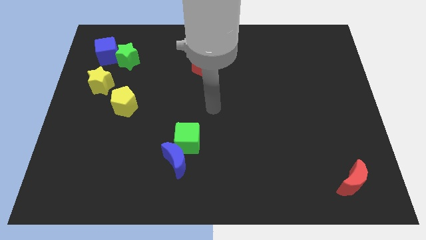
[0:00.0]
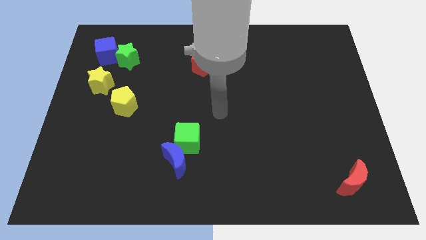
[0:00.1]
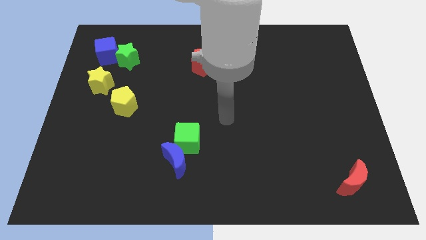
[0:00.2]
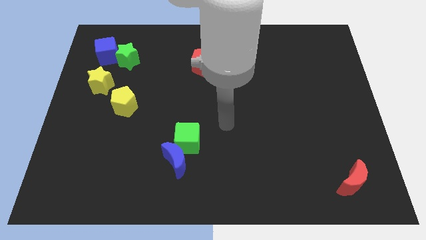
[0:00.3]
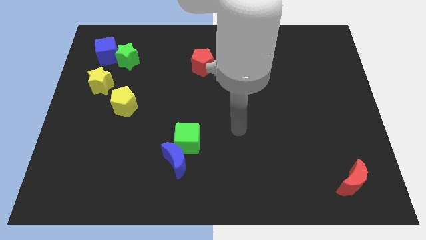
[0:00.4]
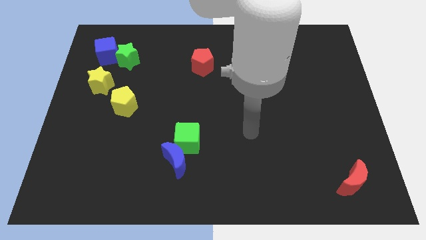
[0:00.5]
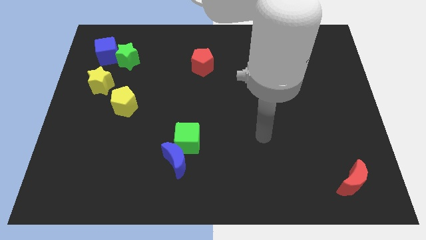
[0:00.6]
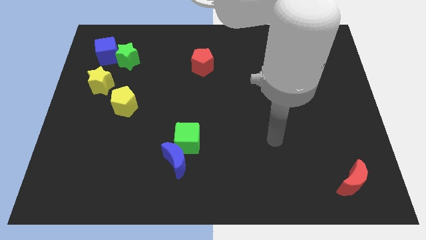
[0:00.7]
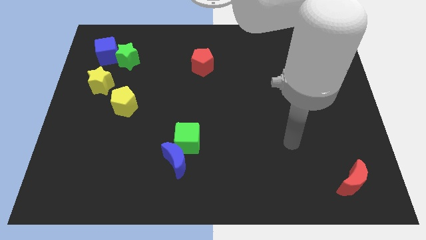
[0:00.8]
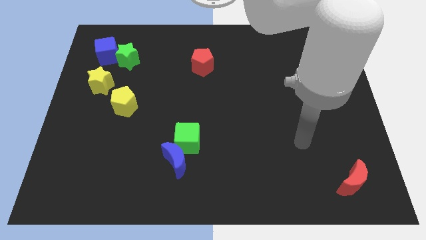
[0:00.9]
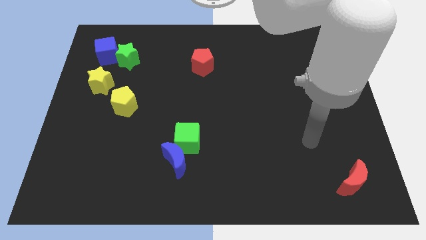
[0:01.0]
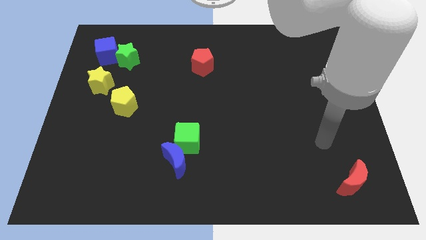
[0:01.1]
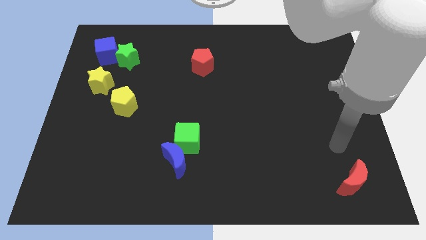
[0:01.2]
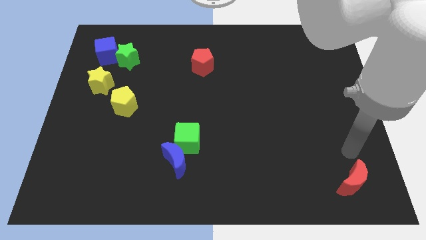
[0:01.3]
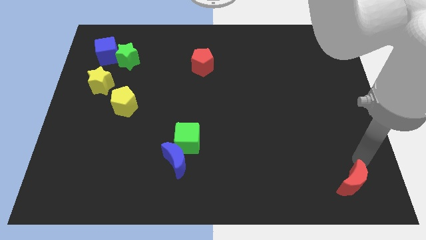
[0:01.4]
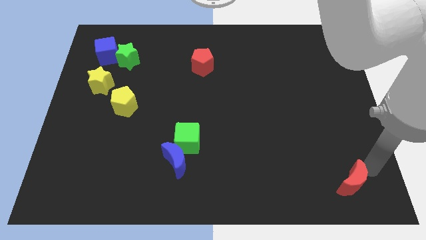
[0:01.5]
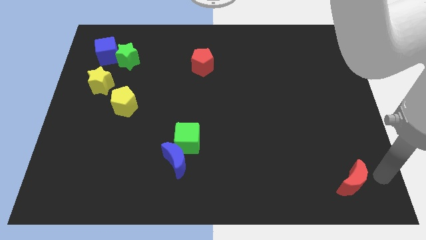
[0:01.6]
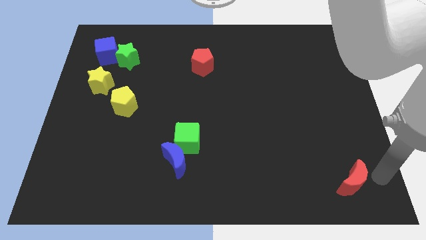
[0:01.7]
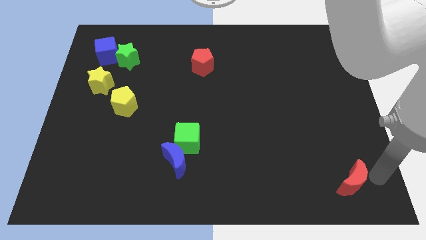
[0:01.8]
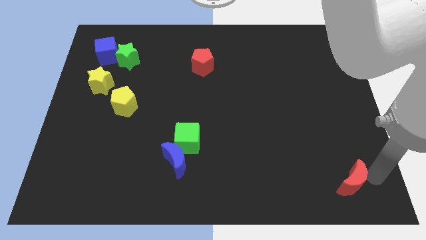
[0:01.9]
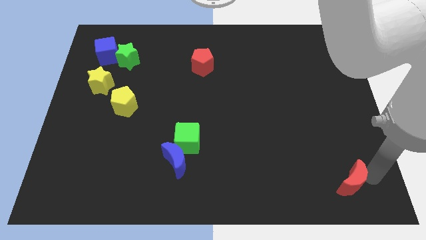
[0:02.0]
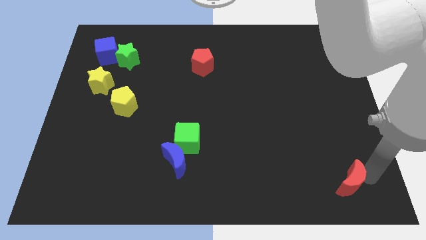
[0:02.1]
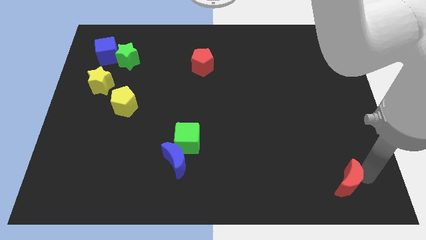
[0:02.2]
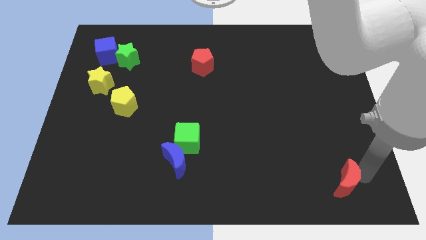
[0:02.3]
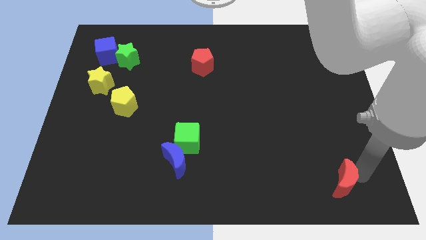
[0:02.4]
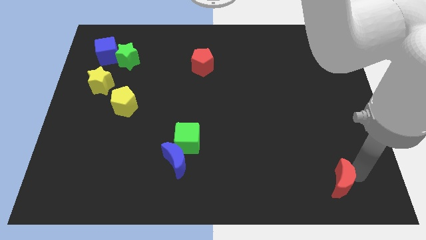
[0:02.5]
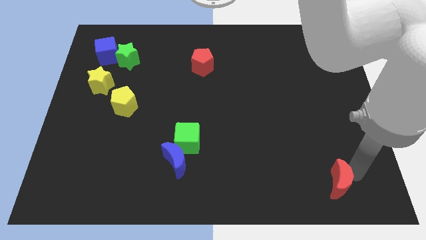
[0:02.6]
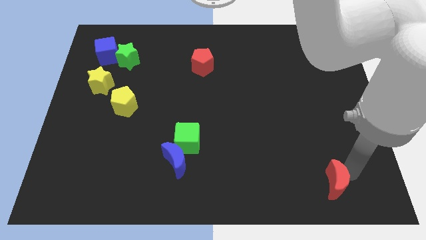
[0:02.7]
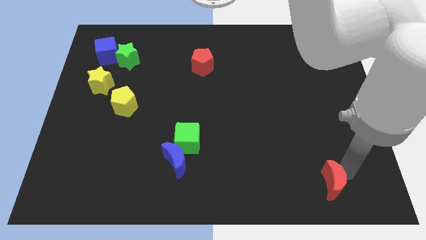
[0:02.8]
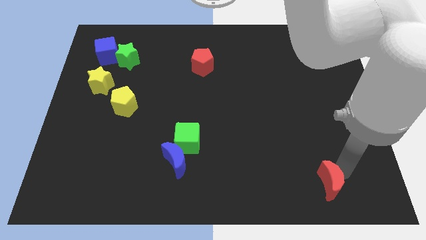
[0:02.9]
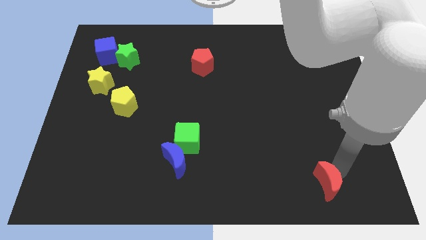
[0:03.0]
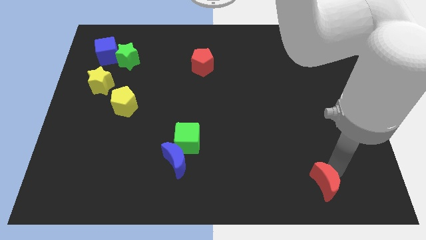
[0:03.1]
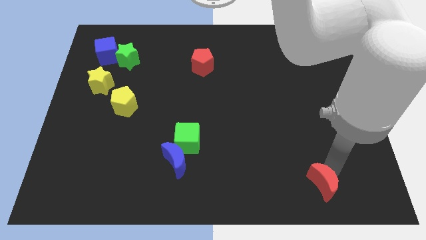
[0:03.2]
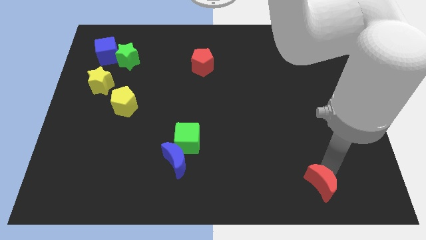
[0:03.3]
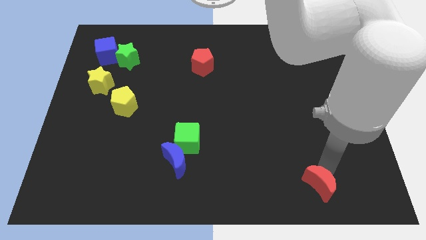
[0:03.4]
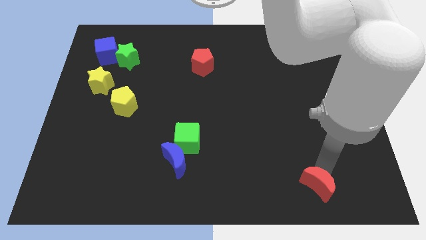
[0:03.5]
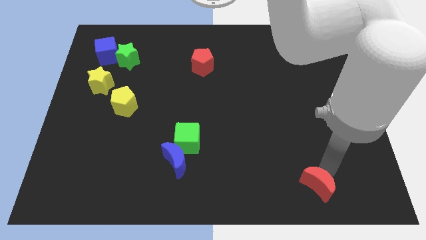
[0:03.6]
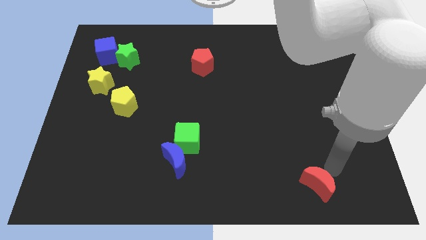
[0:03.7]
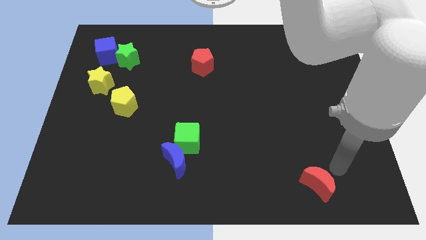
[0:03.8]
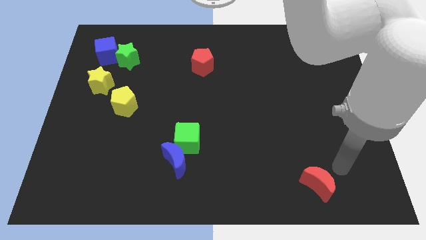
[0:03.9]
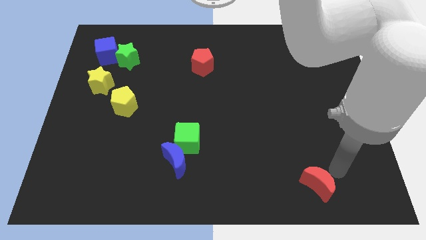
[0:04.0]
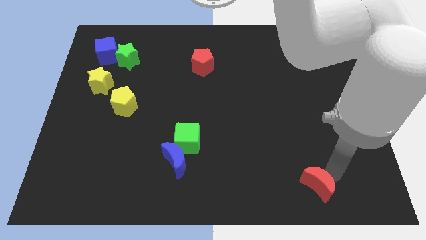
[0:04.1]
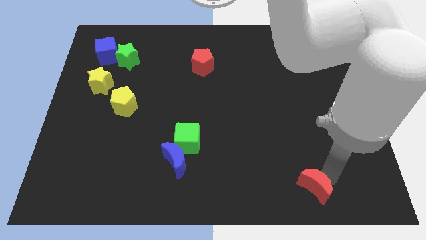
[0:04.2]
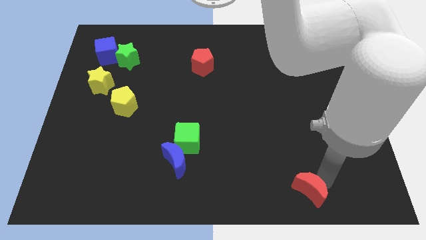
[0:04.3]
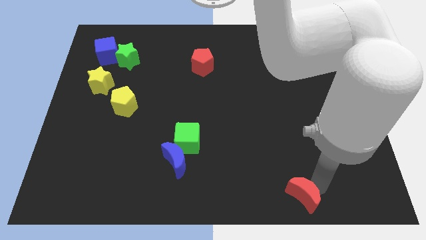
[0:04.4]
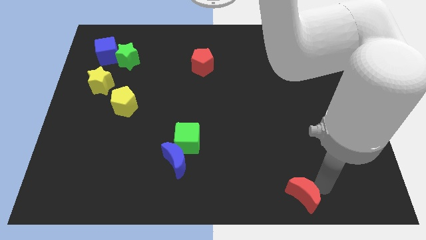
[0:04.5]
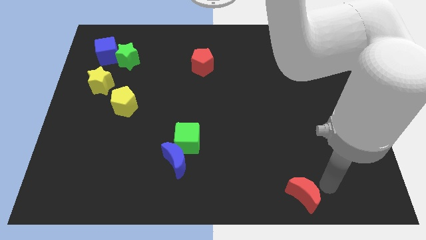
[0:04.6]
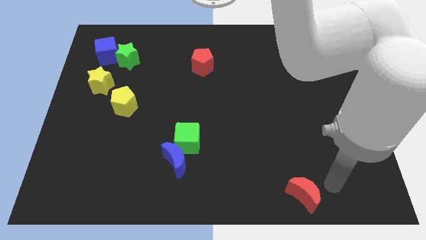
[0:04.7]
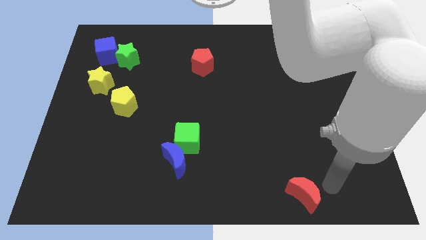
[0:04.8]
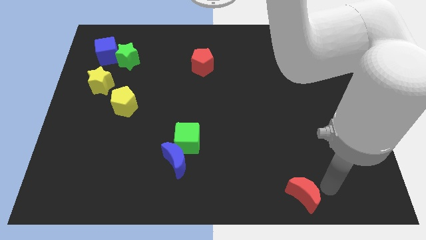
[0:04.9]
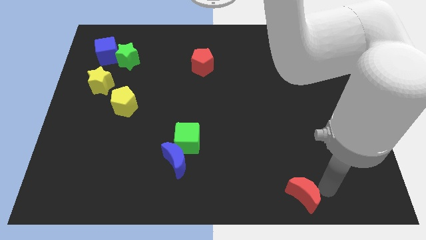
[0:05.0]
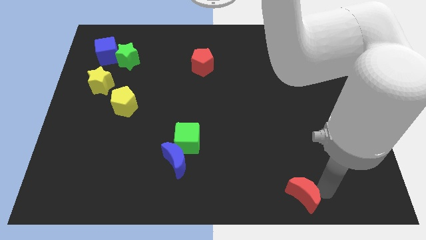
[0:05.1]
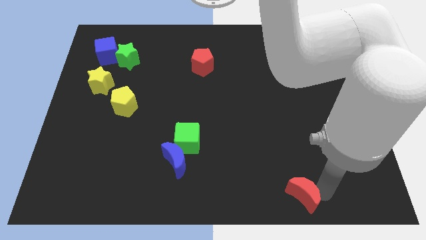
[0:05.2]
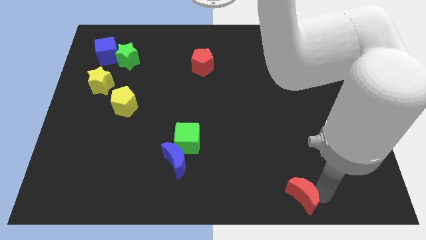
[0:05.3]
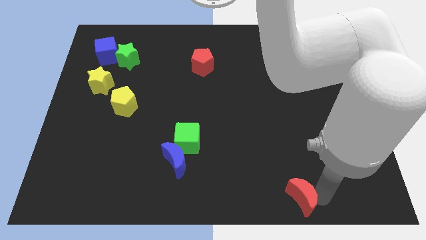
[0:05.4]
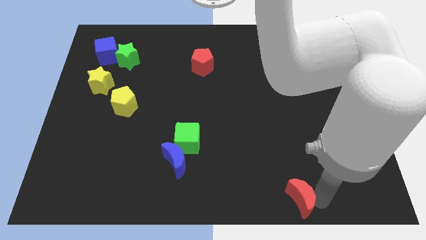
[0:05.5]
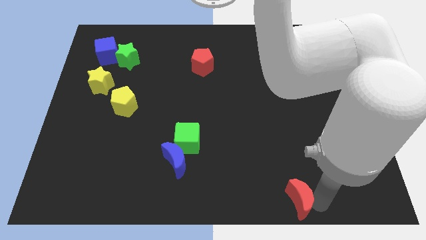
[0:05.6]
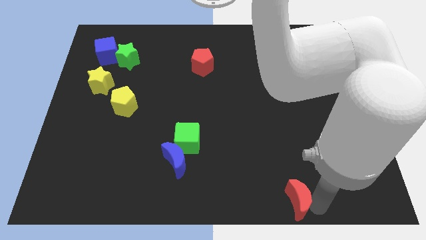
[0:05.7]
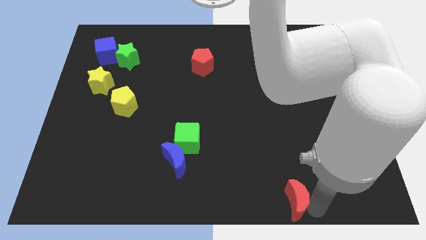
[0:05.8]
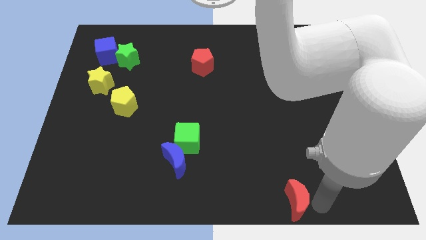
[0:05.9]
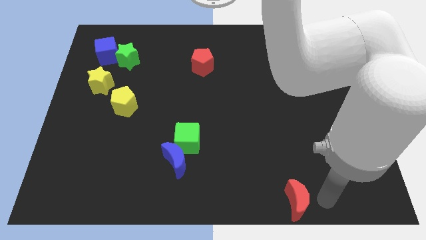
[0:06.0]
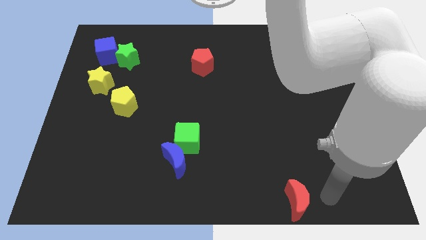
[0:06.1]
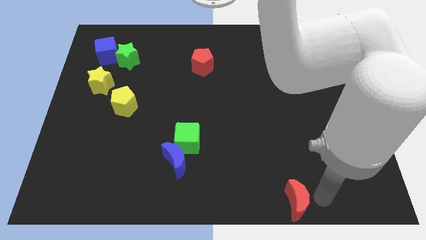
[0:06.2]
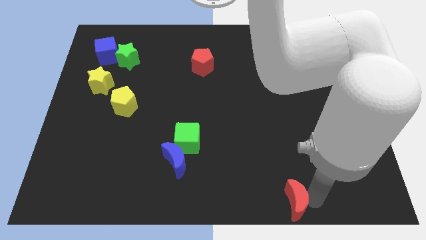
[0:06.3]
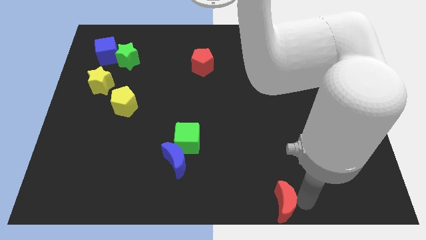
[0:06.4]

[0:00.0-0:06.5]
put the red moon to the bottom

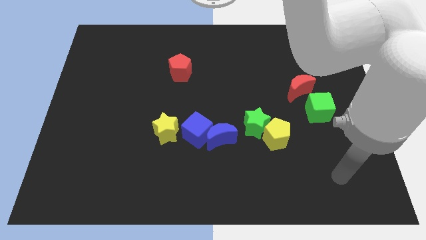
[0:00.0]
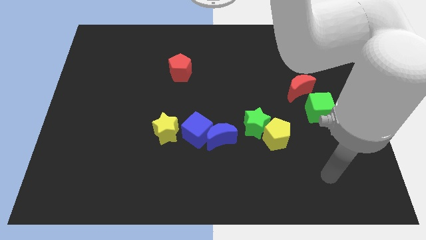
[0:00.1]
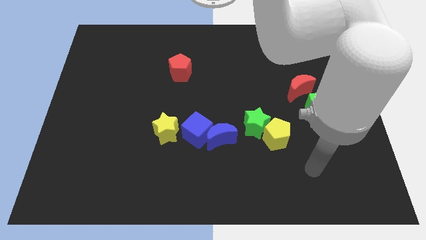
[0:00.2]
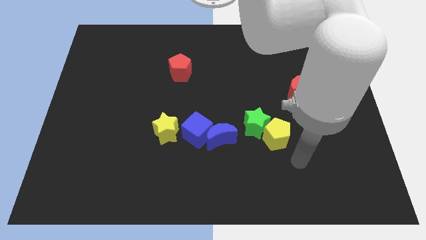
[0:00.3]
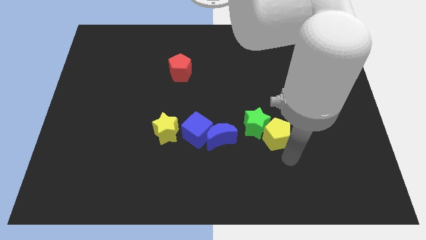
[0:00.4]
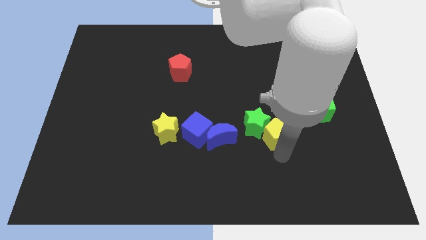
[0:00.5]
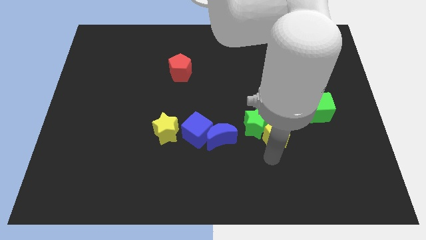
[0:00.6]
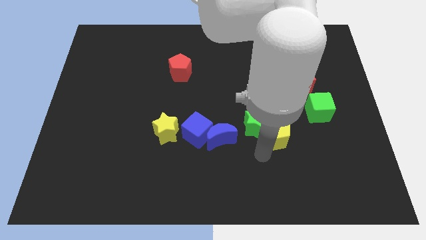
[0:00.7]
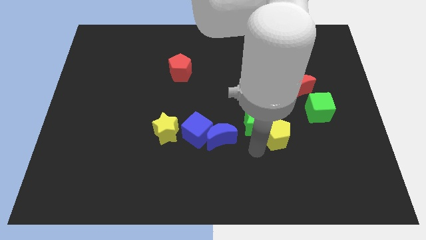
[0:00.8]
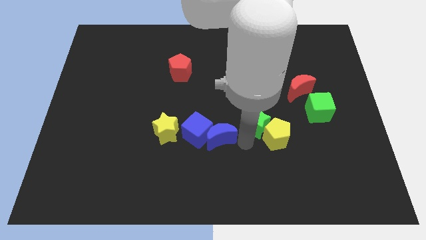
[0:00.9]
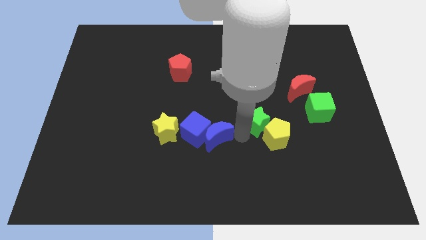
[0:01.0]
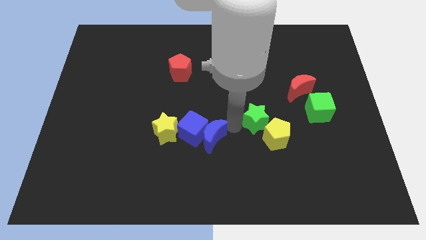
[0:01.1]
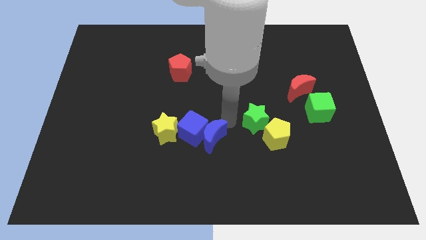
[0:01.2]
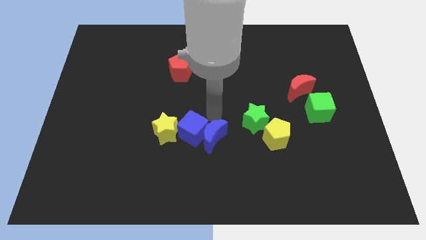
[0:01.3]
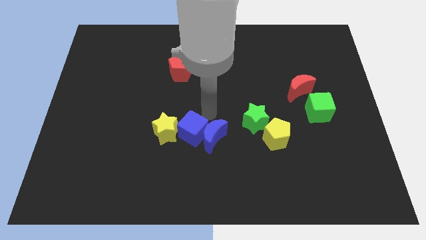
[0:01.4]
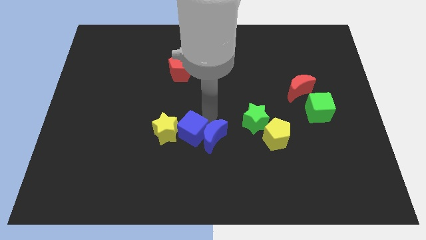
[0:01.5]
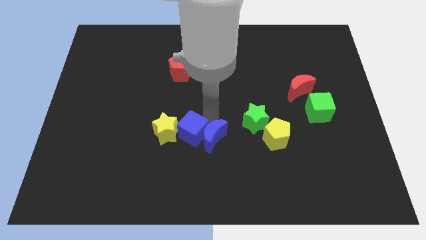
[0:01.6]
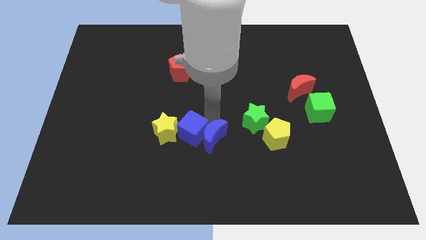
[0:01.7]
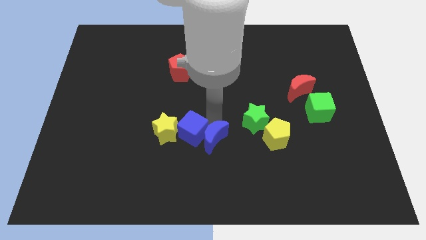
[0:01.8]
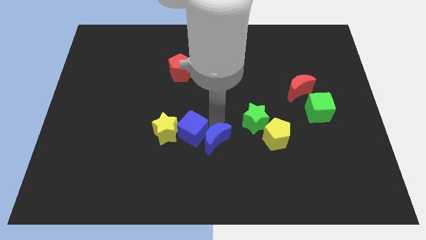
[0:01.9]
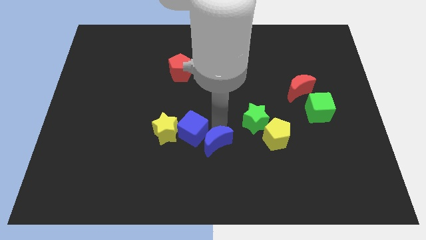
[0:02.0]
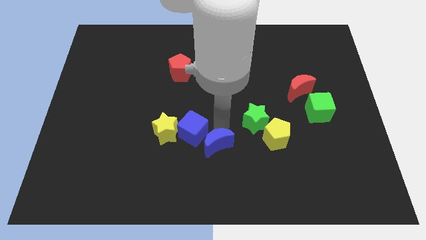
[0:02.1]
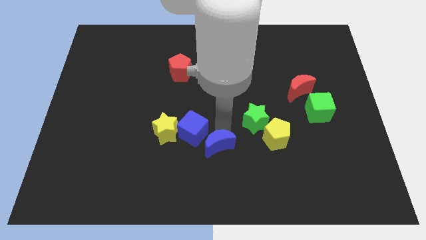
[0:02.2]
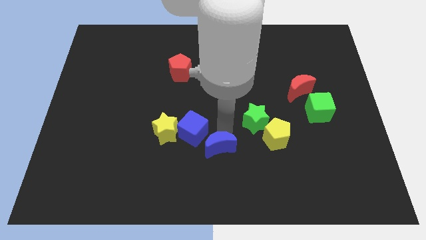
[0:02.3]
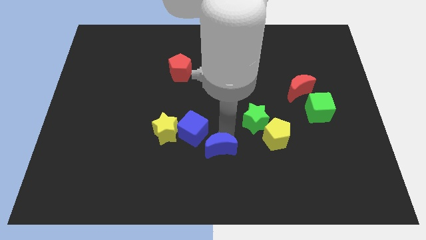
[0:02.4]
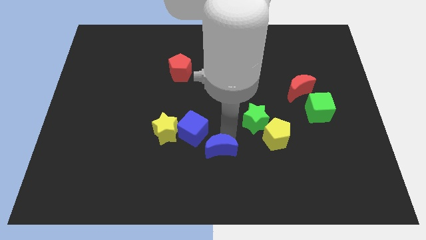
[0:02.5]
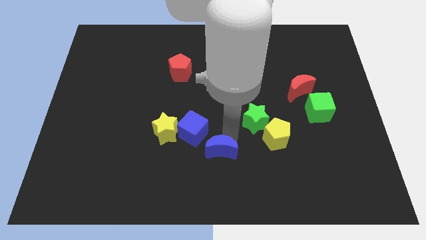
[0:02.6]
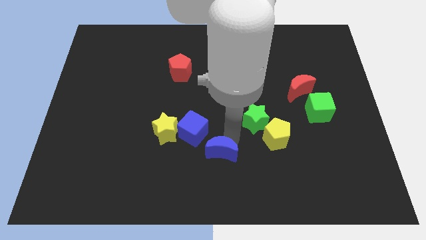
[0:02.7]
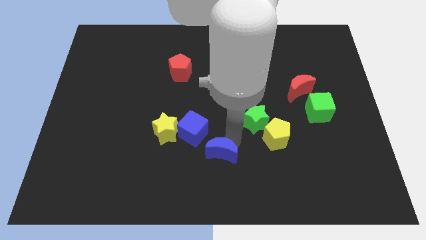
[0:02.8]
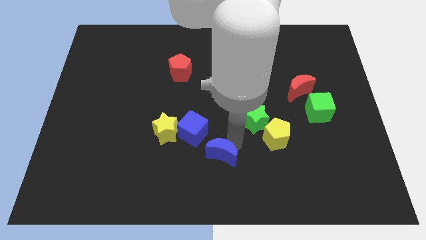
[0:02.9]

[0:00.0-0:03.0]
slide the blue moon to the bottom
